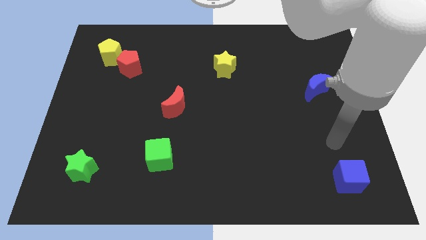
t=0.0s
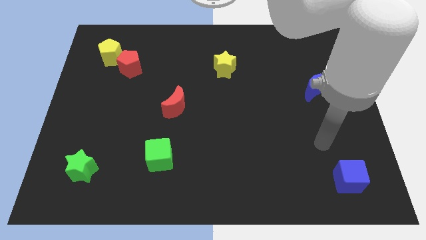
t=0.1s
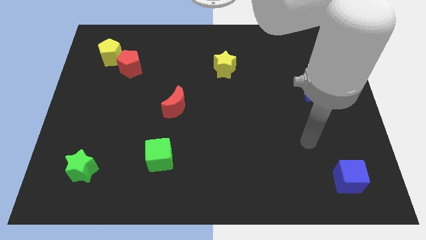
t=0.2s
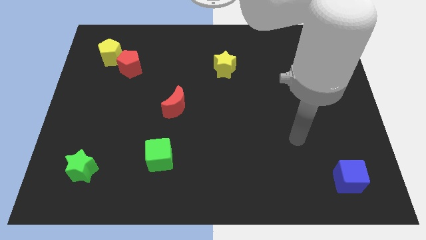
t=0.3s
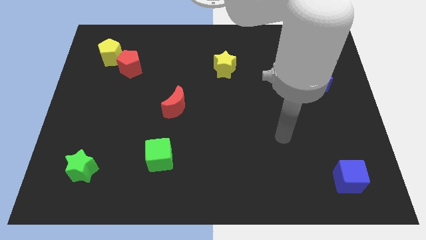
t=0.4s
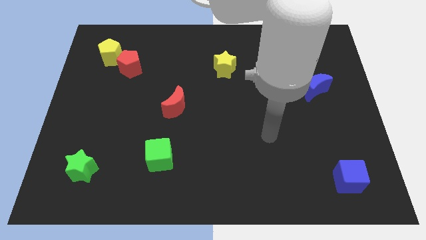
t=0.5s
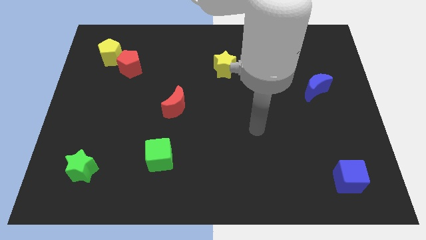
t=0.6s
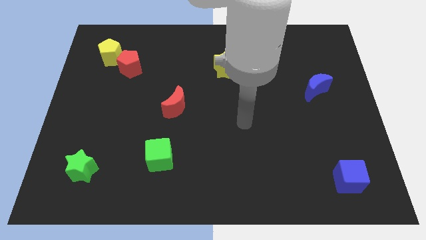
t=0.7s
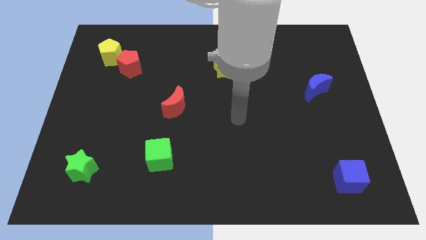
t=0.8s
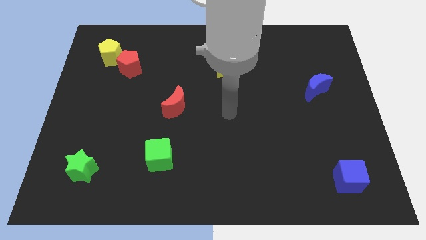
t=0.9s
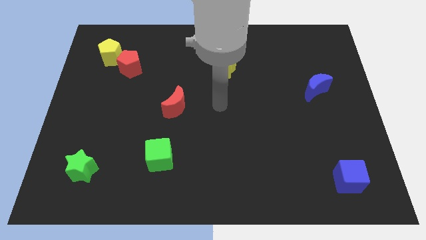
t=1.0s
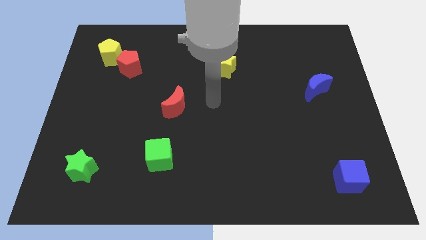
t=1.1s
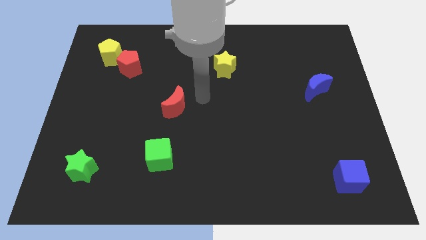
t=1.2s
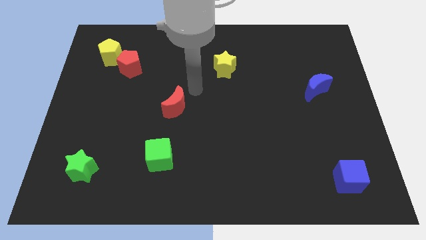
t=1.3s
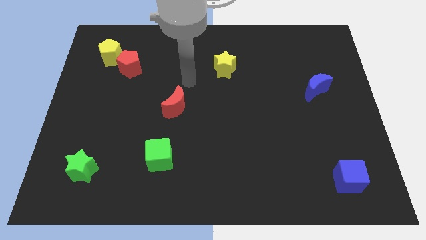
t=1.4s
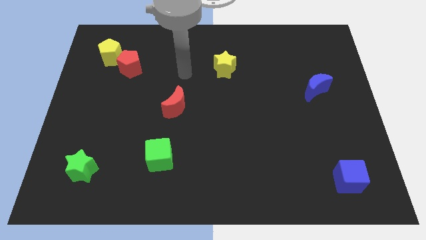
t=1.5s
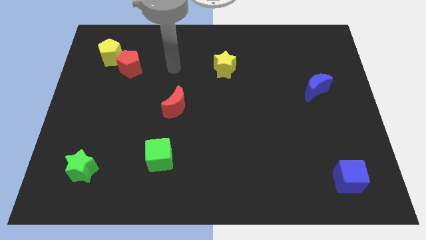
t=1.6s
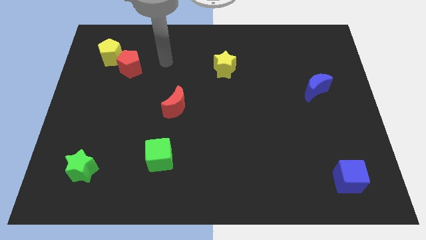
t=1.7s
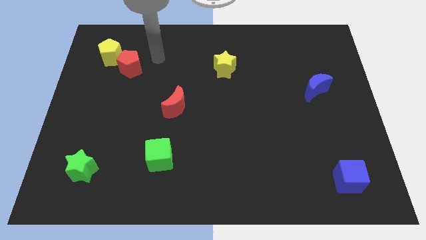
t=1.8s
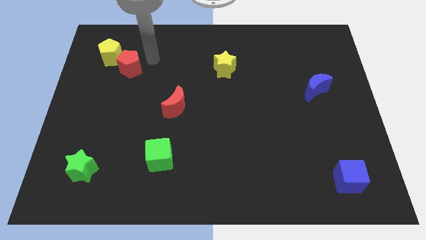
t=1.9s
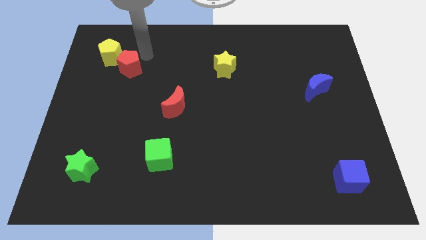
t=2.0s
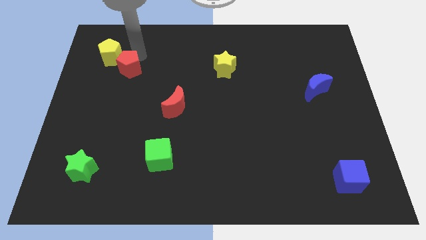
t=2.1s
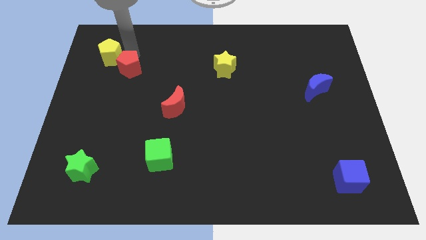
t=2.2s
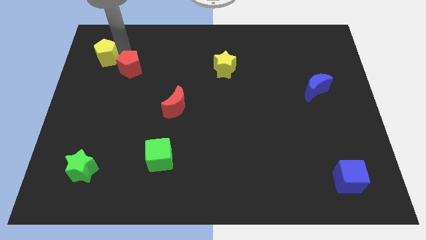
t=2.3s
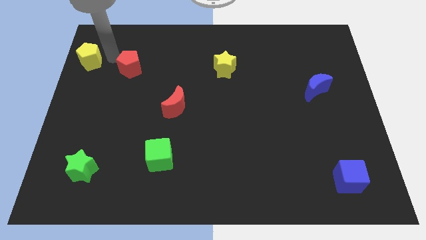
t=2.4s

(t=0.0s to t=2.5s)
separate the red pentagon from the yellow pentagon

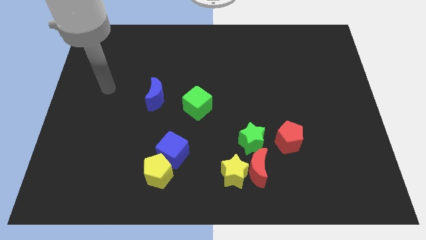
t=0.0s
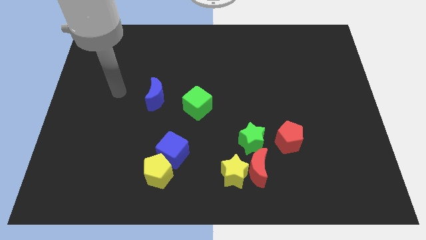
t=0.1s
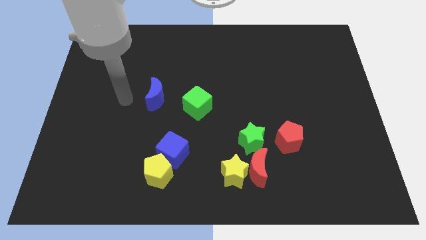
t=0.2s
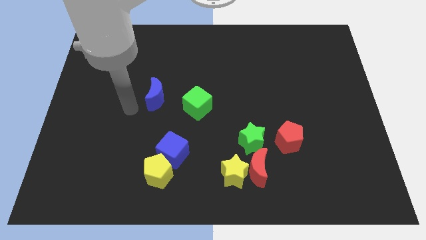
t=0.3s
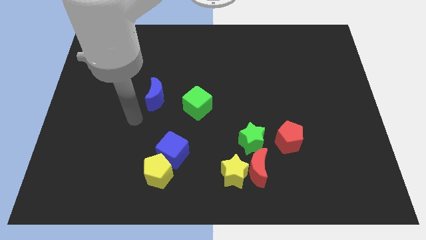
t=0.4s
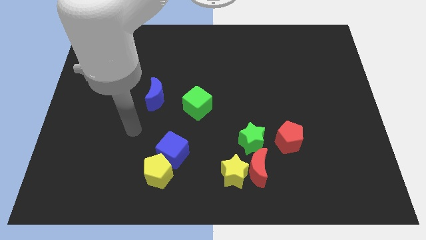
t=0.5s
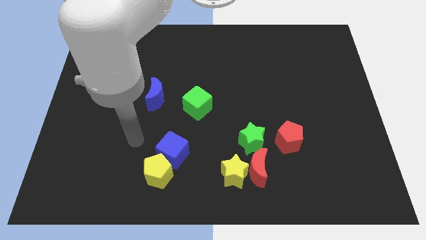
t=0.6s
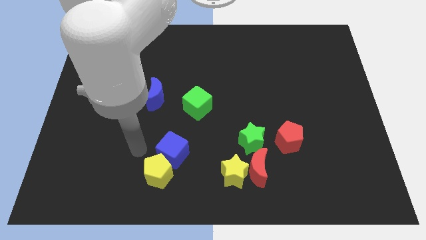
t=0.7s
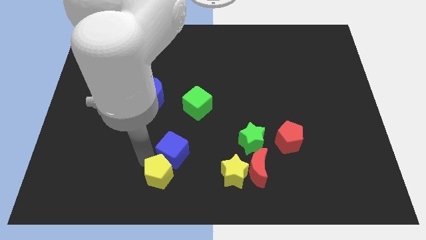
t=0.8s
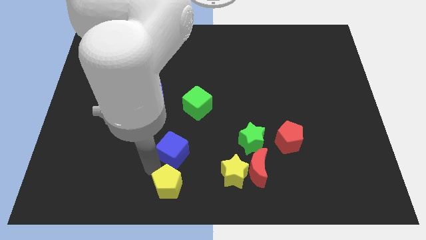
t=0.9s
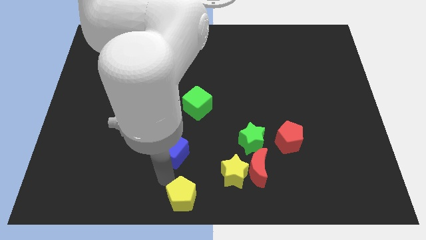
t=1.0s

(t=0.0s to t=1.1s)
pull the blue cube apart from the yellow pentagon

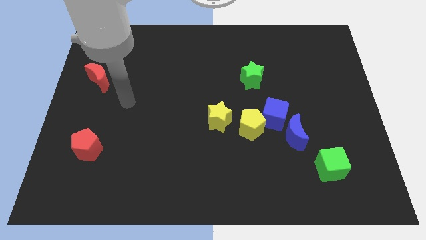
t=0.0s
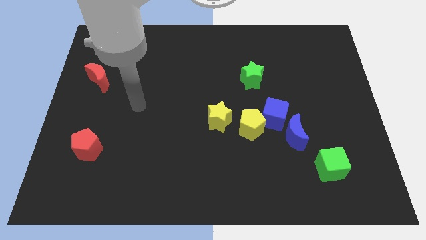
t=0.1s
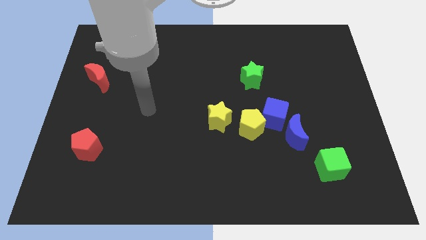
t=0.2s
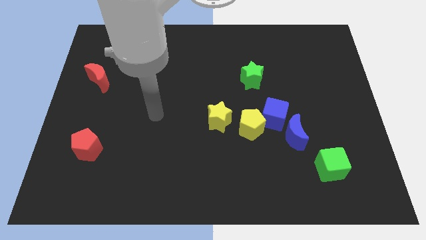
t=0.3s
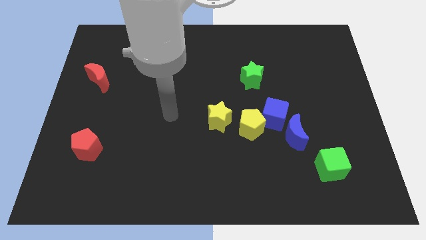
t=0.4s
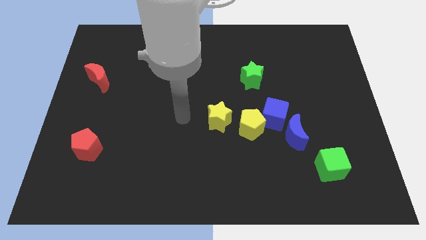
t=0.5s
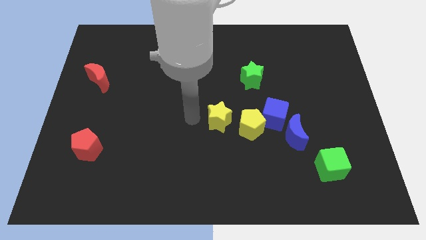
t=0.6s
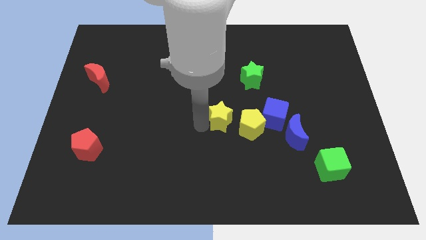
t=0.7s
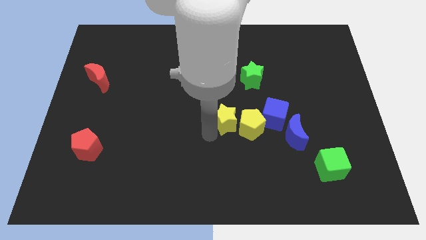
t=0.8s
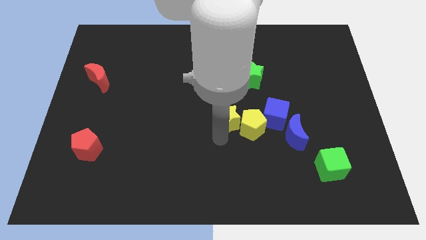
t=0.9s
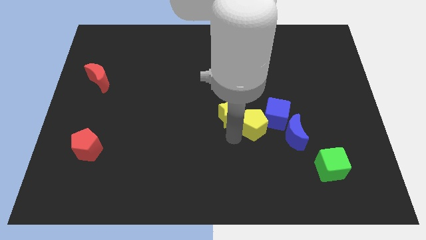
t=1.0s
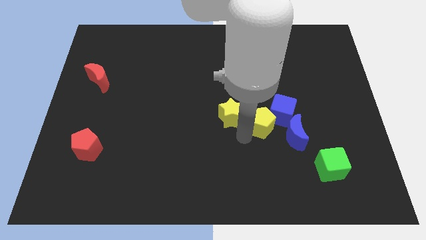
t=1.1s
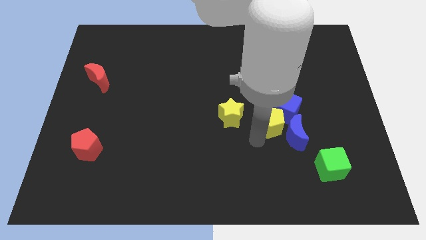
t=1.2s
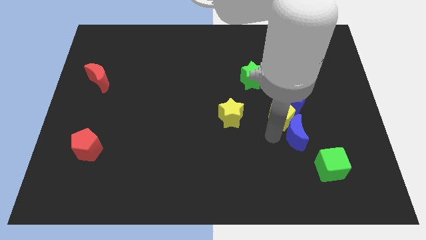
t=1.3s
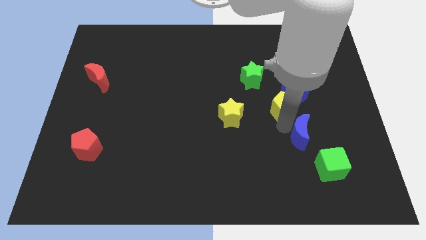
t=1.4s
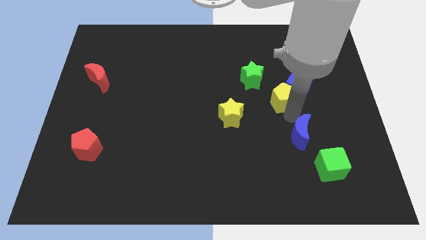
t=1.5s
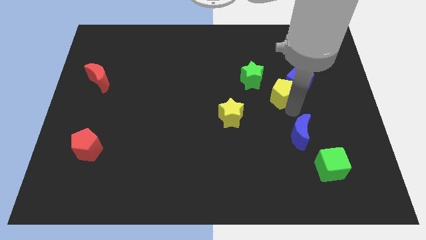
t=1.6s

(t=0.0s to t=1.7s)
pull the blue cube apart from the yellow pentagon and blue moon

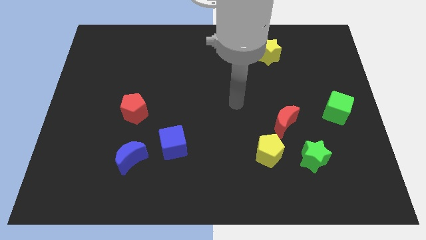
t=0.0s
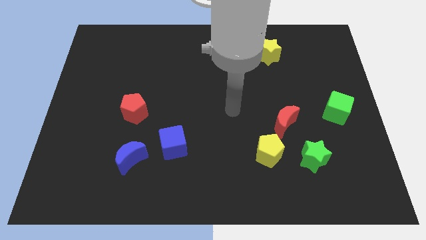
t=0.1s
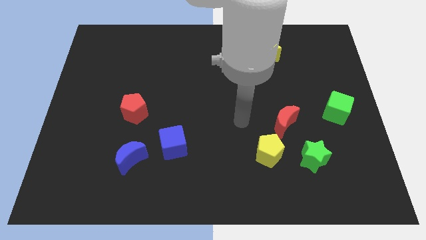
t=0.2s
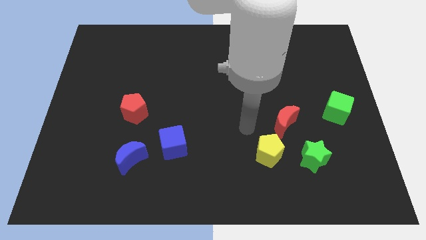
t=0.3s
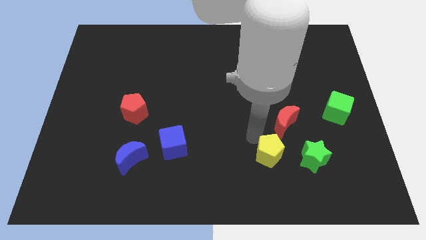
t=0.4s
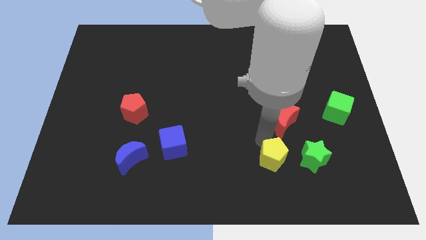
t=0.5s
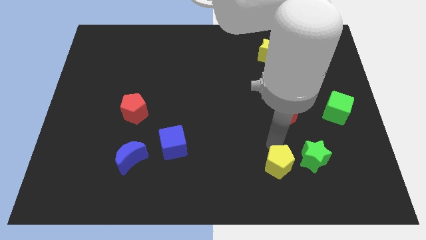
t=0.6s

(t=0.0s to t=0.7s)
pull the red moon apart from the yellow pentagon

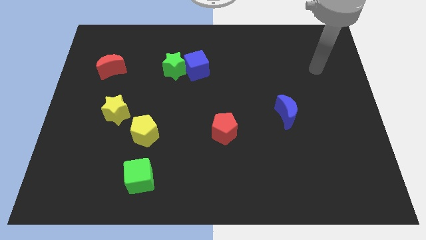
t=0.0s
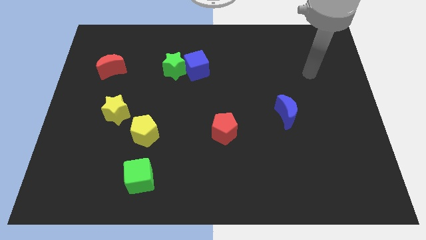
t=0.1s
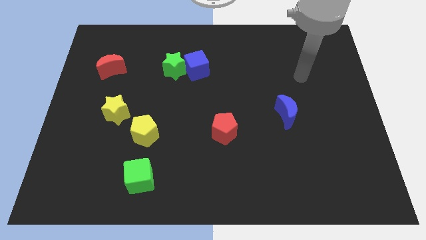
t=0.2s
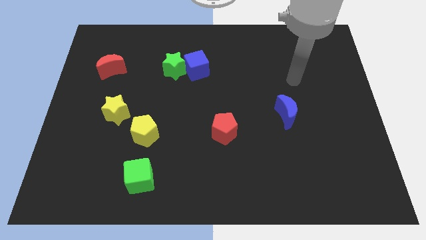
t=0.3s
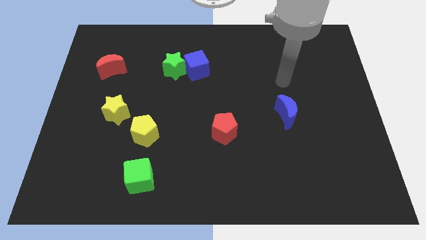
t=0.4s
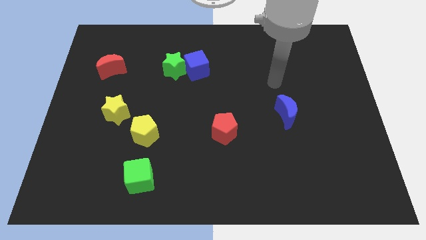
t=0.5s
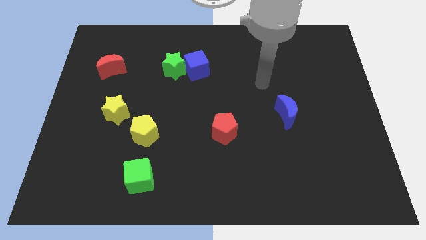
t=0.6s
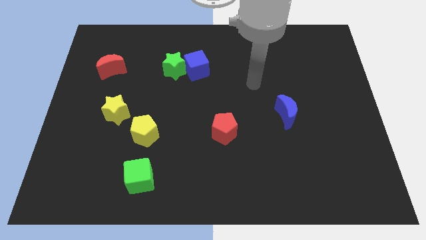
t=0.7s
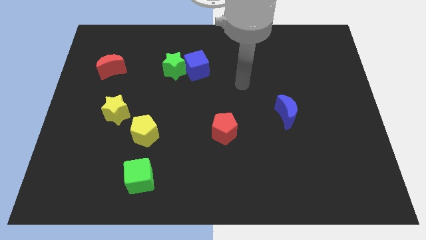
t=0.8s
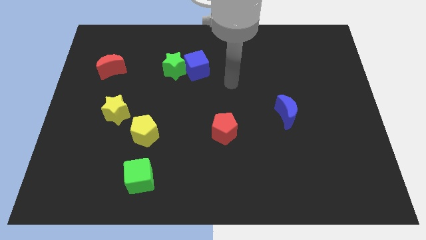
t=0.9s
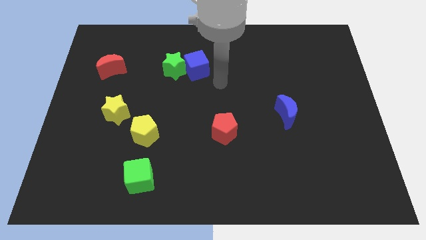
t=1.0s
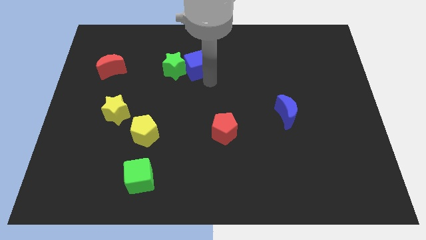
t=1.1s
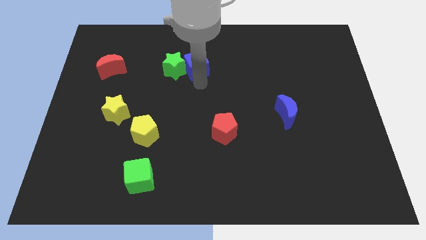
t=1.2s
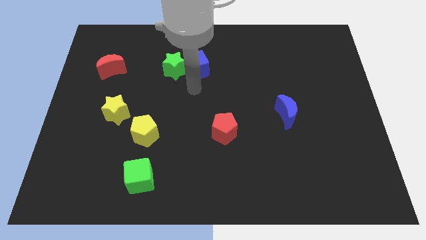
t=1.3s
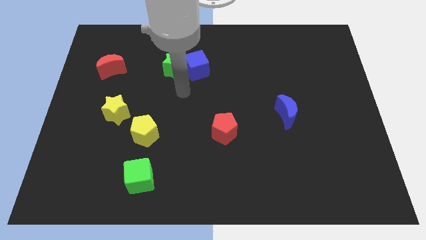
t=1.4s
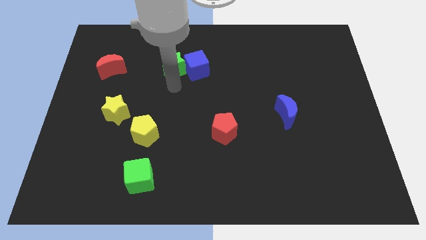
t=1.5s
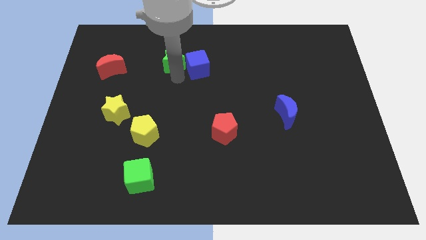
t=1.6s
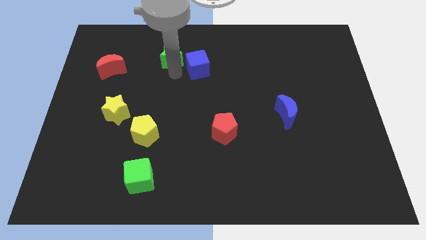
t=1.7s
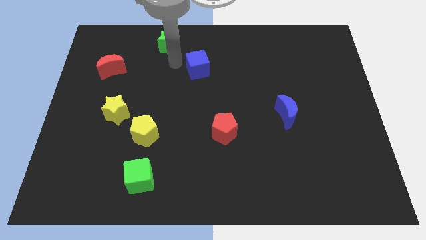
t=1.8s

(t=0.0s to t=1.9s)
pull the blue cube apart from the green star

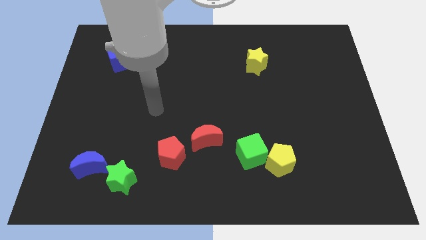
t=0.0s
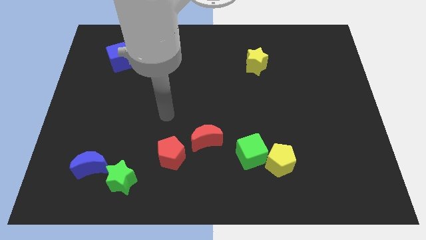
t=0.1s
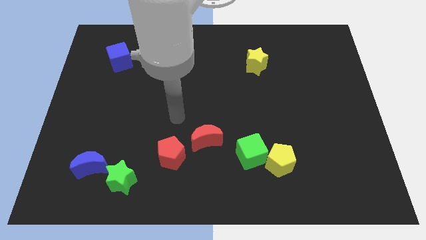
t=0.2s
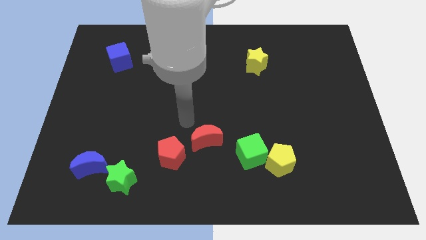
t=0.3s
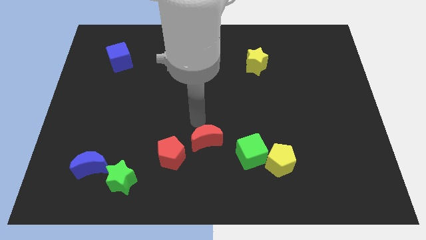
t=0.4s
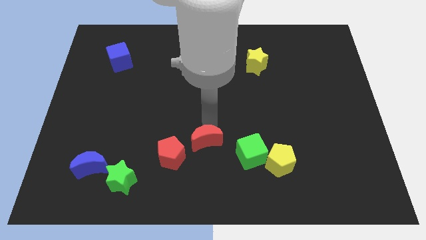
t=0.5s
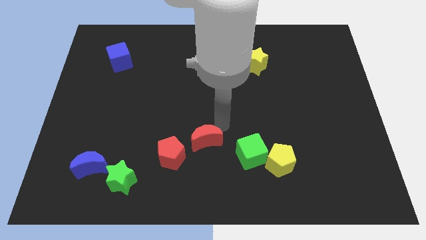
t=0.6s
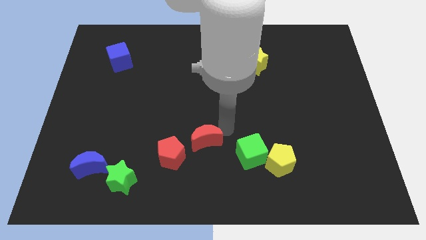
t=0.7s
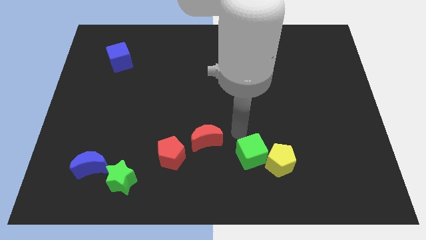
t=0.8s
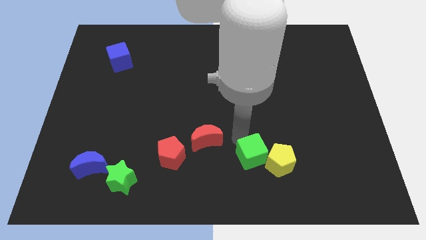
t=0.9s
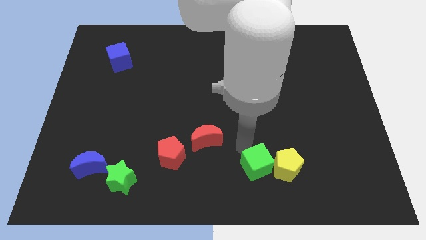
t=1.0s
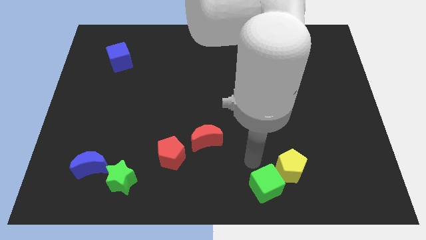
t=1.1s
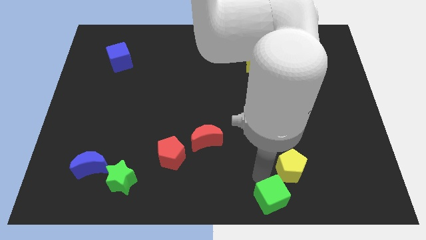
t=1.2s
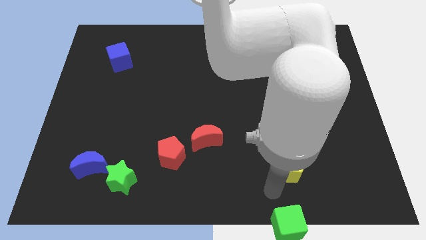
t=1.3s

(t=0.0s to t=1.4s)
move the yellow pentagon away from the green cube

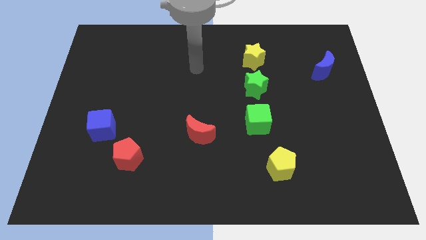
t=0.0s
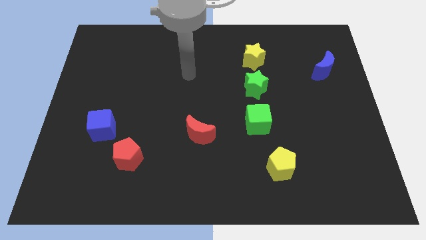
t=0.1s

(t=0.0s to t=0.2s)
move the red pentagon away from the blue cube

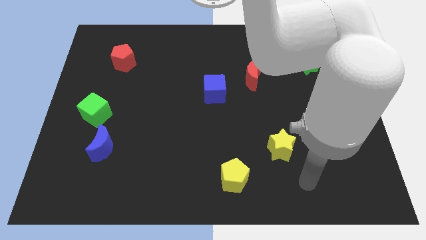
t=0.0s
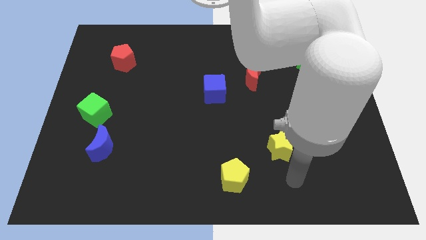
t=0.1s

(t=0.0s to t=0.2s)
separate the blue moon from the green cube
